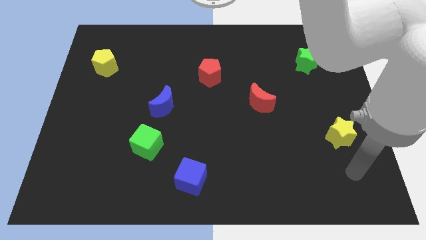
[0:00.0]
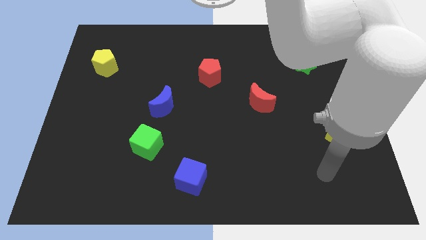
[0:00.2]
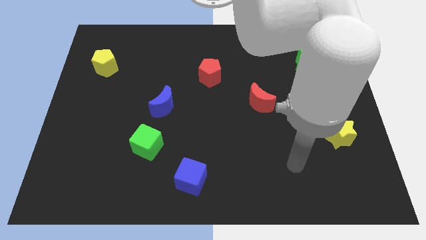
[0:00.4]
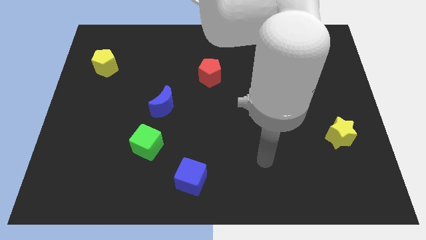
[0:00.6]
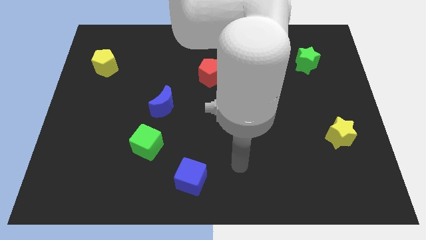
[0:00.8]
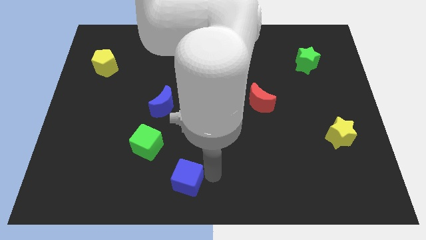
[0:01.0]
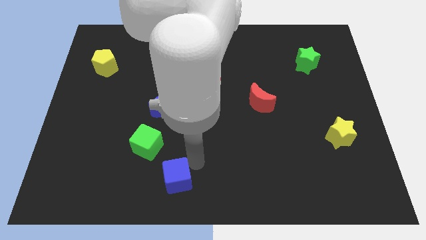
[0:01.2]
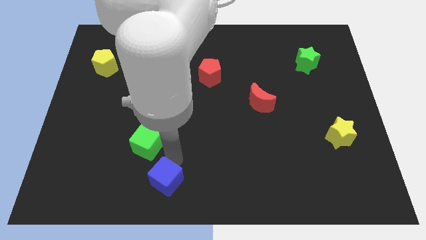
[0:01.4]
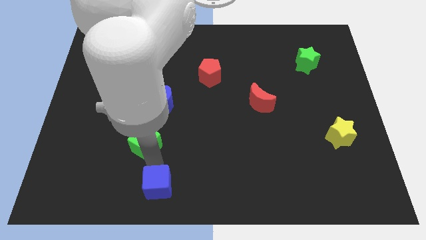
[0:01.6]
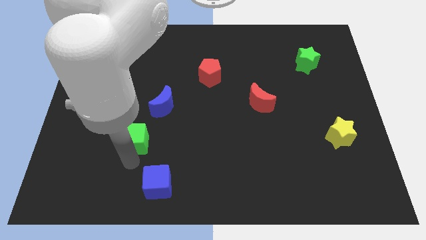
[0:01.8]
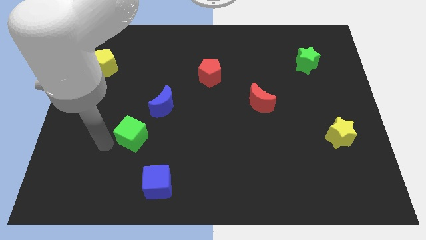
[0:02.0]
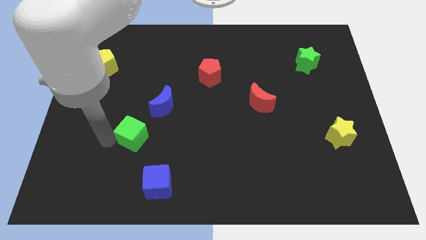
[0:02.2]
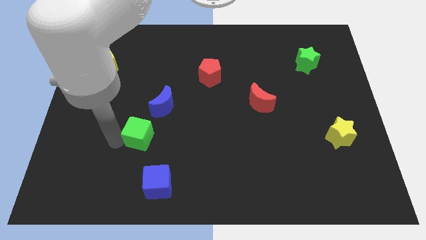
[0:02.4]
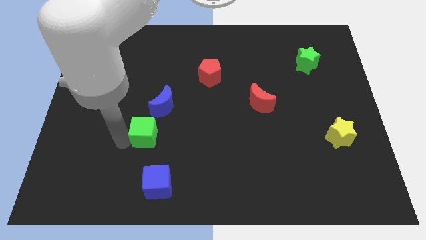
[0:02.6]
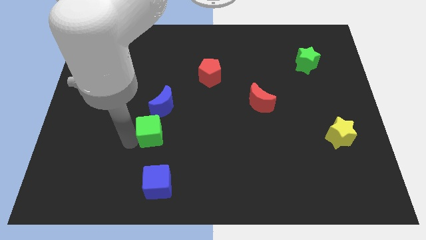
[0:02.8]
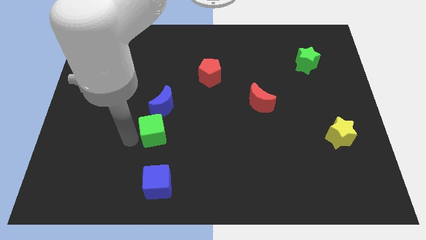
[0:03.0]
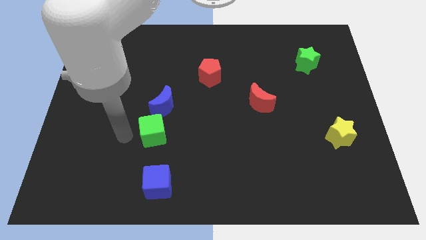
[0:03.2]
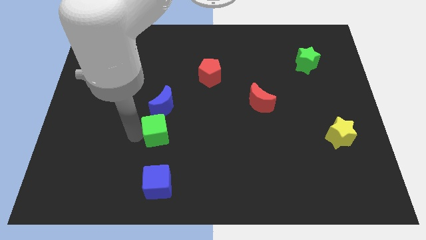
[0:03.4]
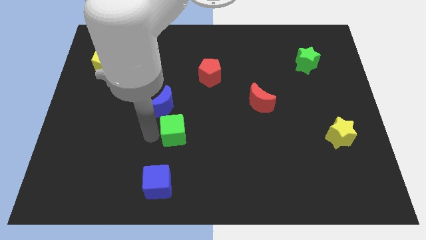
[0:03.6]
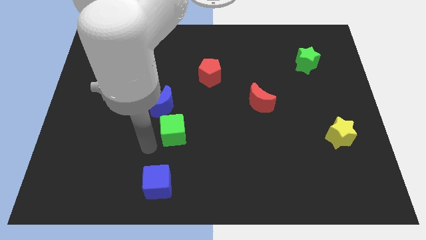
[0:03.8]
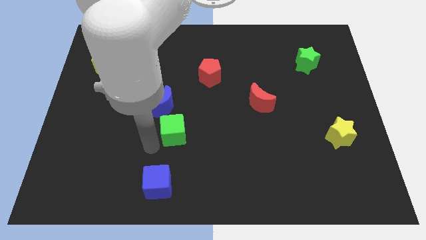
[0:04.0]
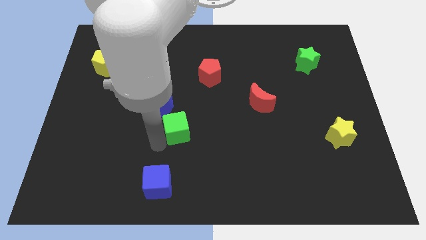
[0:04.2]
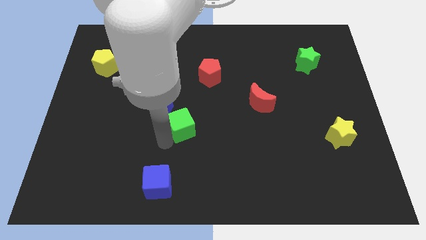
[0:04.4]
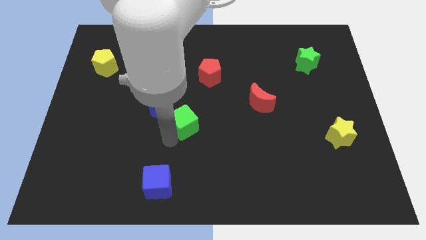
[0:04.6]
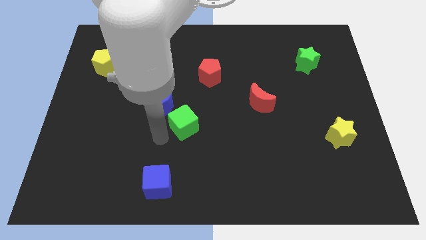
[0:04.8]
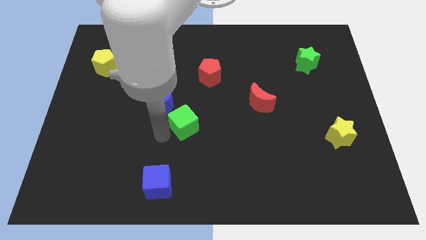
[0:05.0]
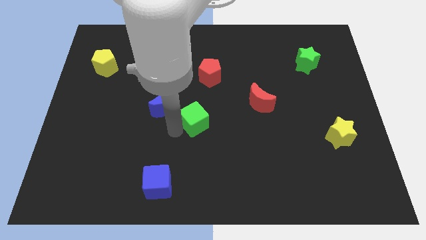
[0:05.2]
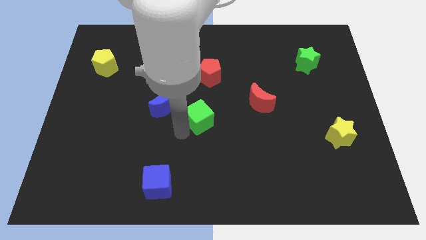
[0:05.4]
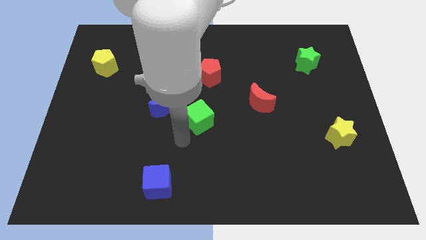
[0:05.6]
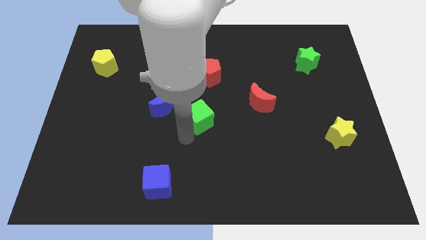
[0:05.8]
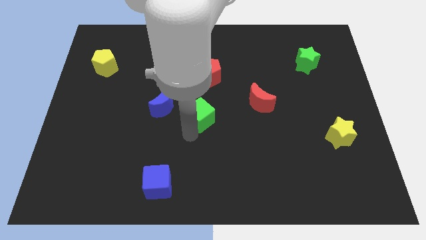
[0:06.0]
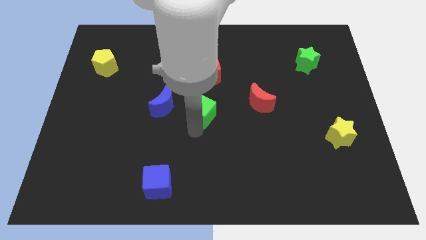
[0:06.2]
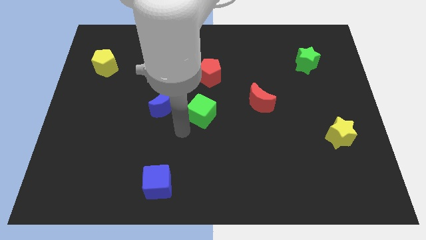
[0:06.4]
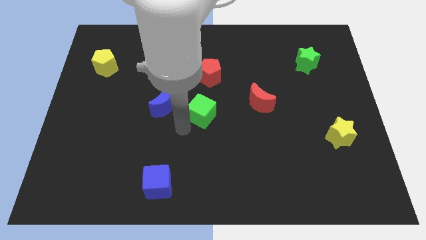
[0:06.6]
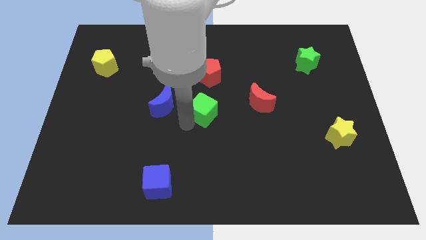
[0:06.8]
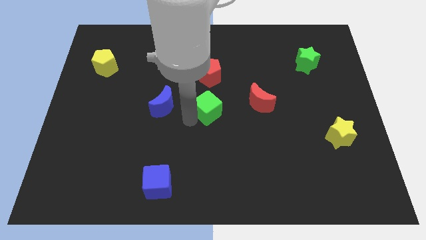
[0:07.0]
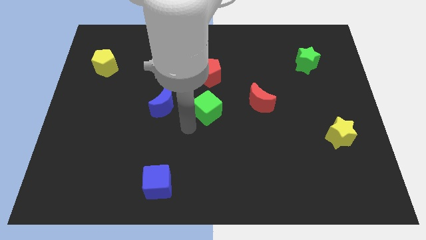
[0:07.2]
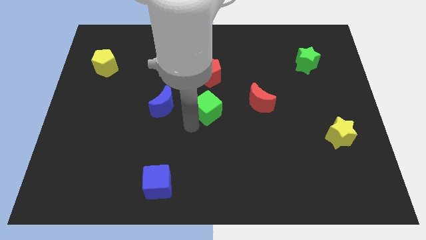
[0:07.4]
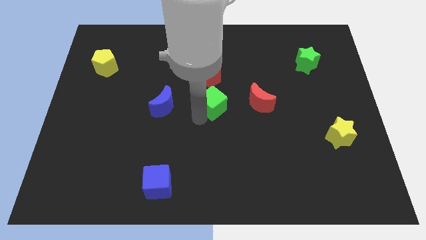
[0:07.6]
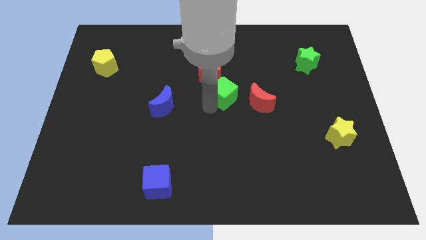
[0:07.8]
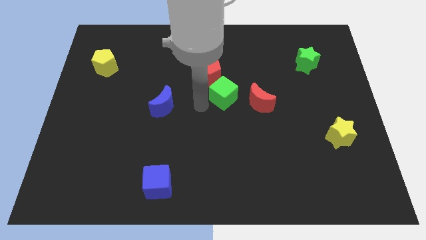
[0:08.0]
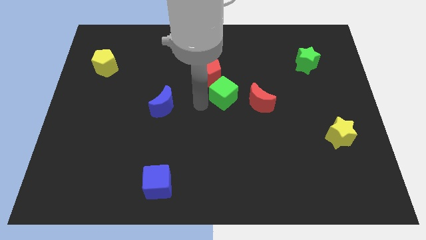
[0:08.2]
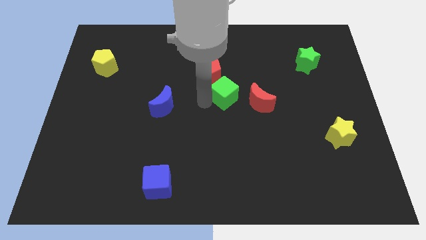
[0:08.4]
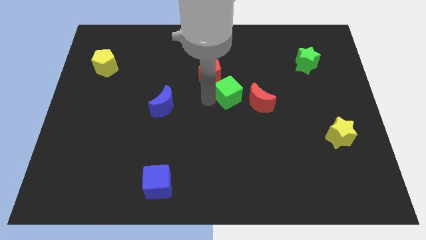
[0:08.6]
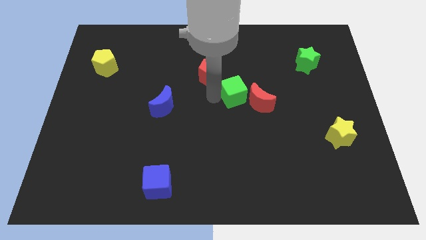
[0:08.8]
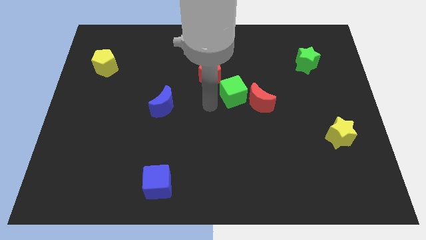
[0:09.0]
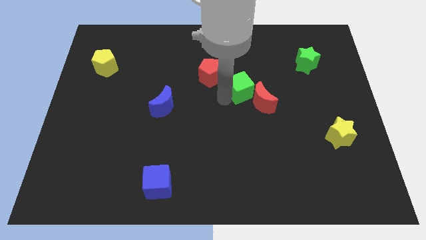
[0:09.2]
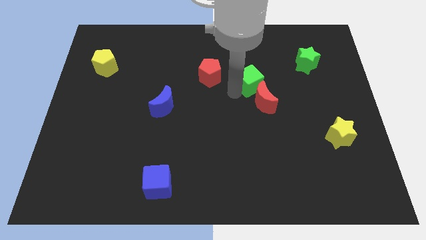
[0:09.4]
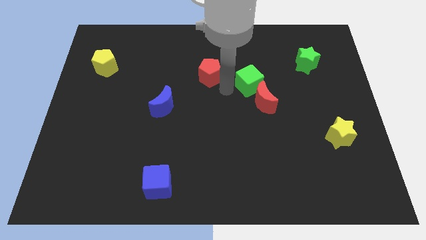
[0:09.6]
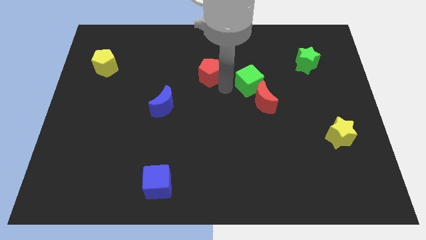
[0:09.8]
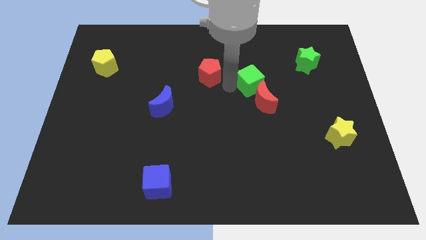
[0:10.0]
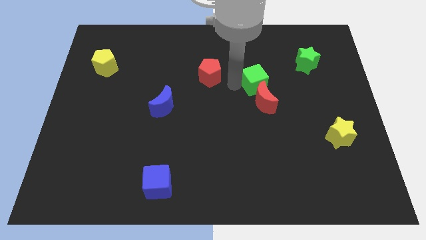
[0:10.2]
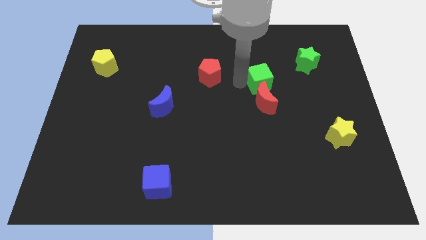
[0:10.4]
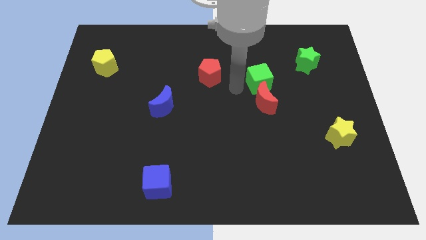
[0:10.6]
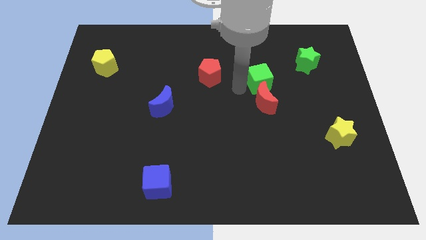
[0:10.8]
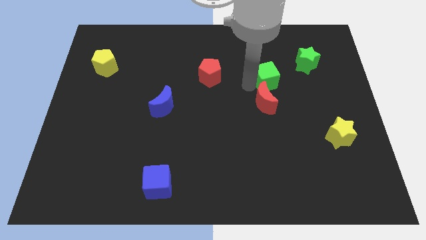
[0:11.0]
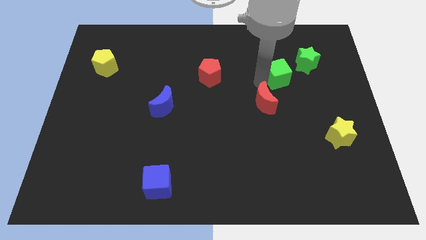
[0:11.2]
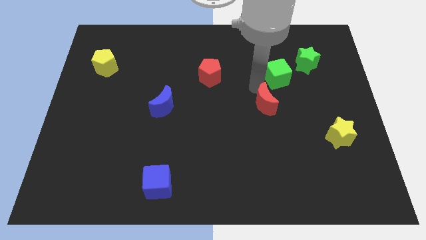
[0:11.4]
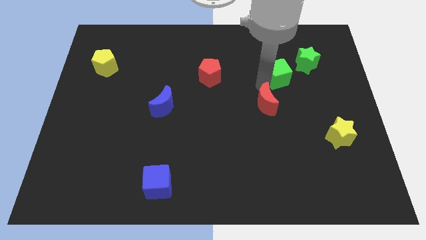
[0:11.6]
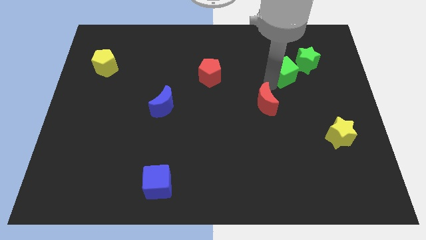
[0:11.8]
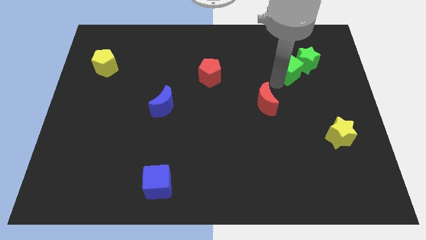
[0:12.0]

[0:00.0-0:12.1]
slide the green cube next to the green star
